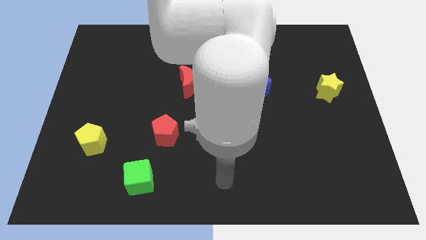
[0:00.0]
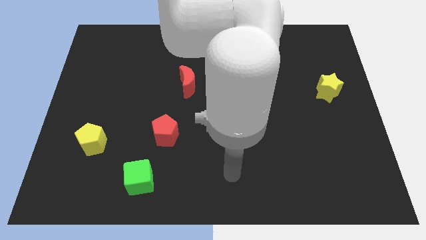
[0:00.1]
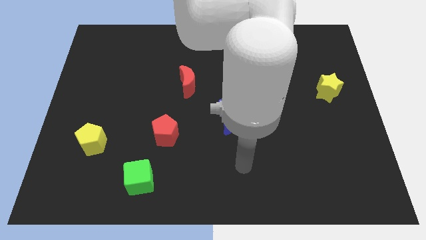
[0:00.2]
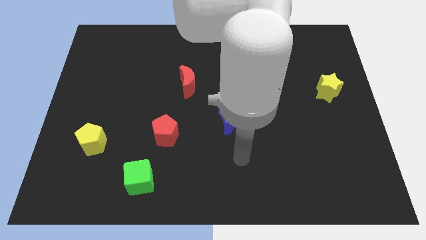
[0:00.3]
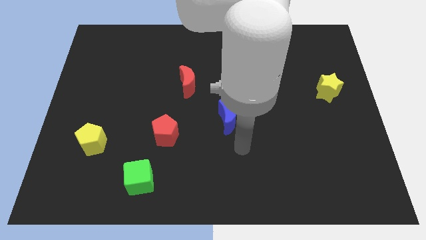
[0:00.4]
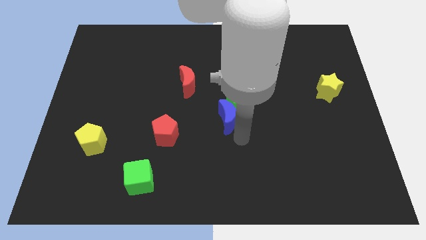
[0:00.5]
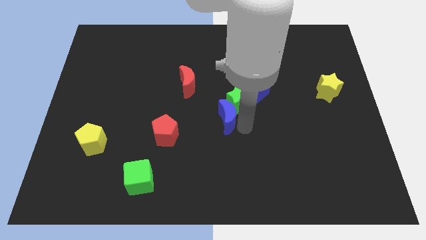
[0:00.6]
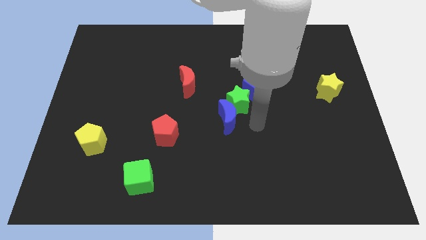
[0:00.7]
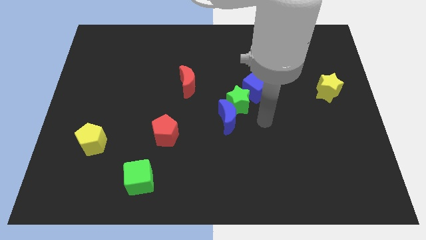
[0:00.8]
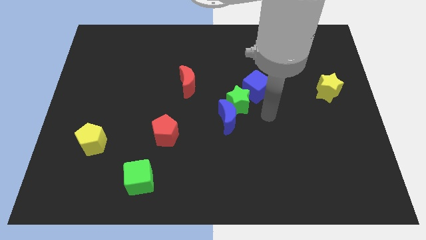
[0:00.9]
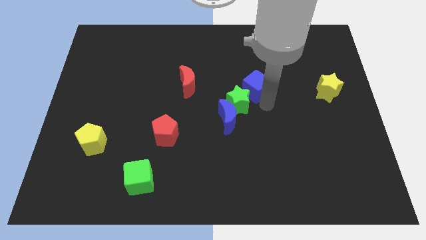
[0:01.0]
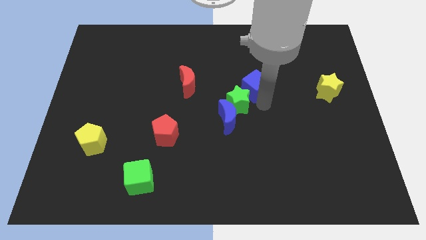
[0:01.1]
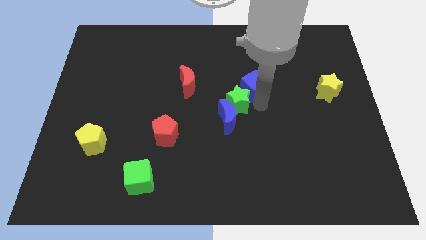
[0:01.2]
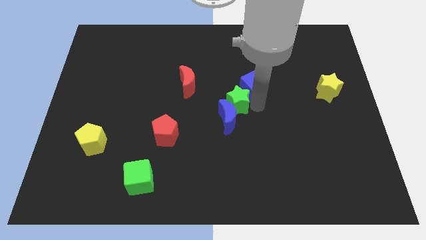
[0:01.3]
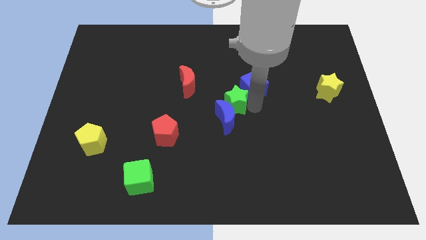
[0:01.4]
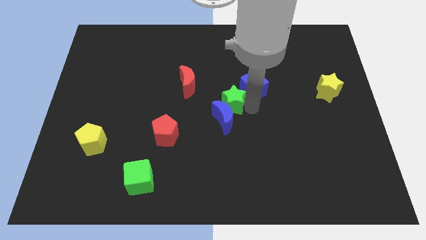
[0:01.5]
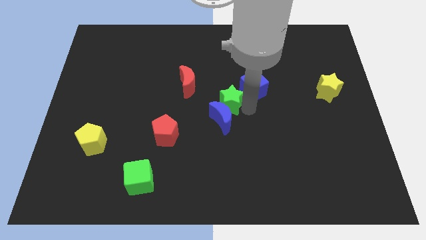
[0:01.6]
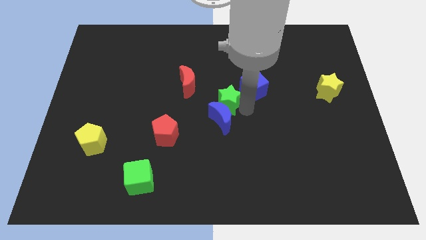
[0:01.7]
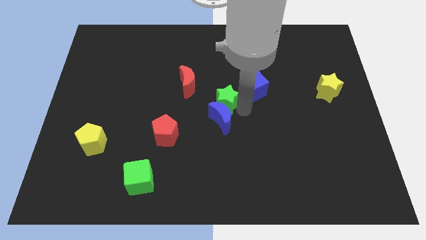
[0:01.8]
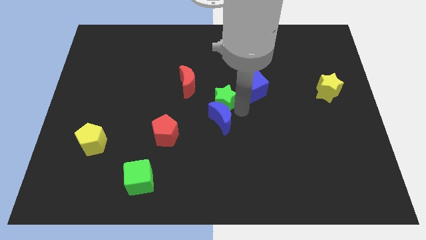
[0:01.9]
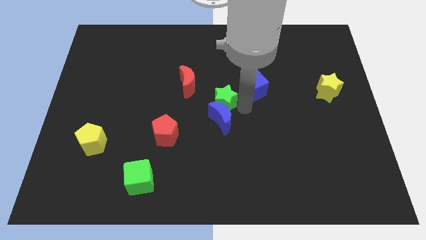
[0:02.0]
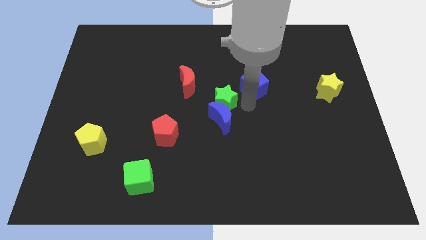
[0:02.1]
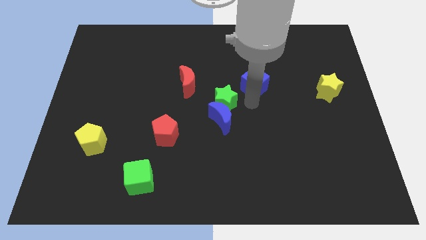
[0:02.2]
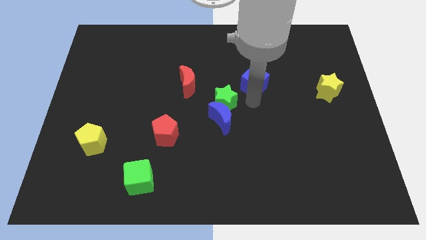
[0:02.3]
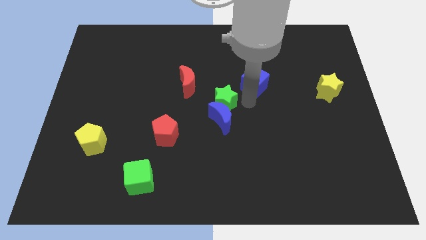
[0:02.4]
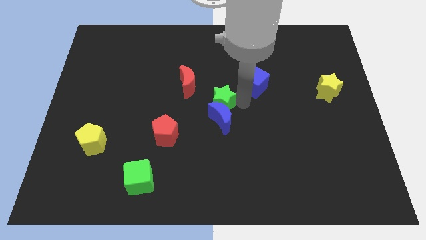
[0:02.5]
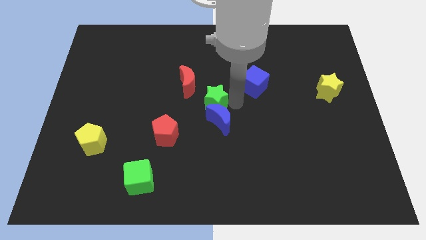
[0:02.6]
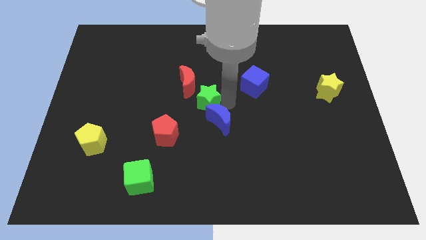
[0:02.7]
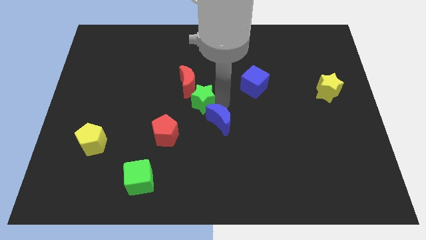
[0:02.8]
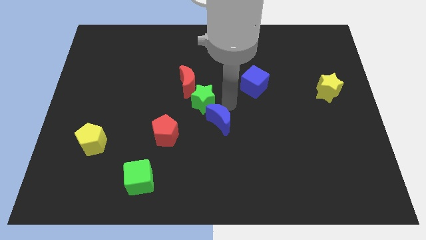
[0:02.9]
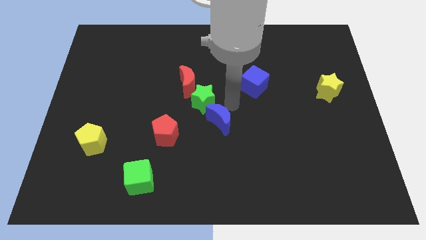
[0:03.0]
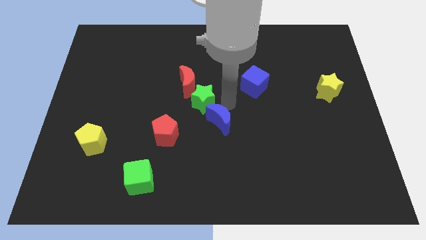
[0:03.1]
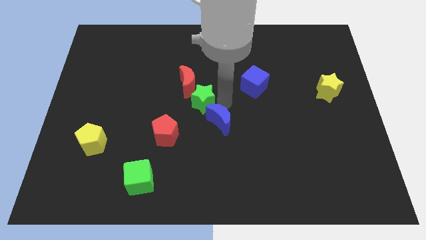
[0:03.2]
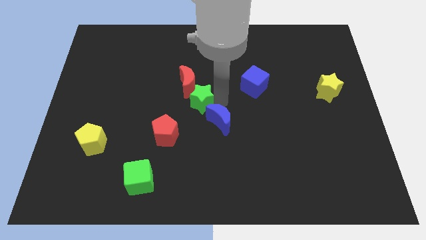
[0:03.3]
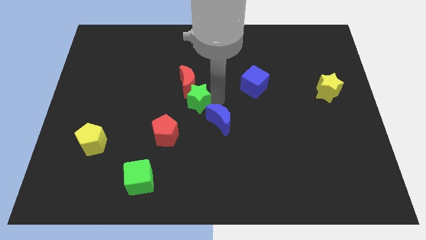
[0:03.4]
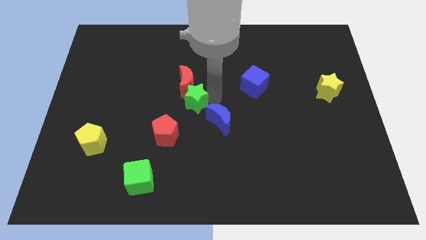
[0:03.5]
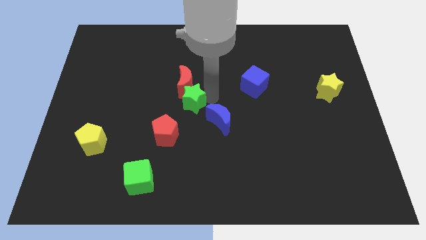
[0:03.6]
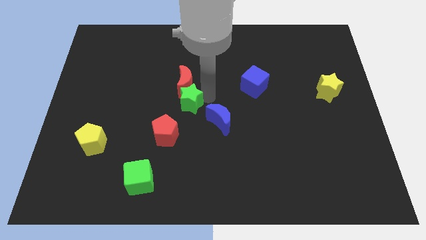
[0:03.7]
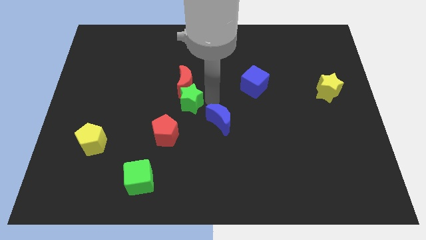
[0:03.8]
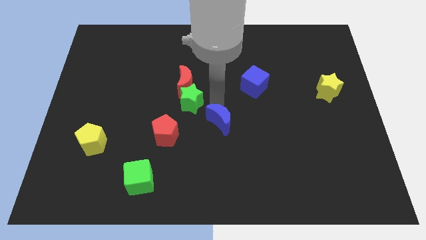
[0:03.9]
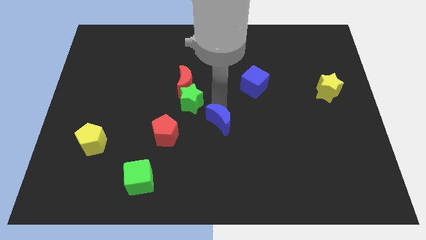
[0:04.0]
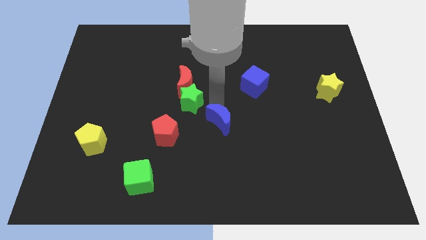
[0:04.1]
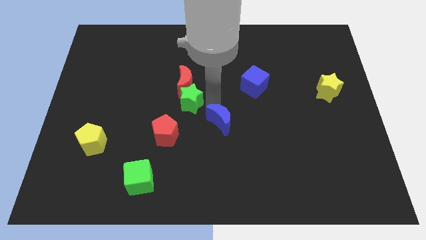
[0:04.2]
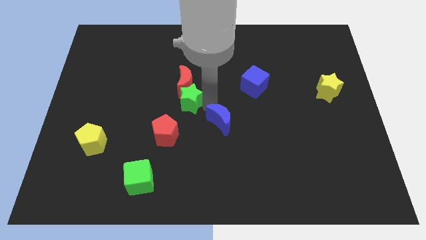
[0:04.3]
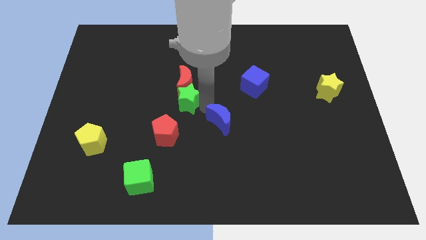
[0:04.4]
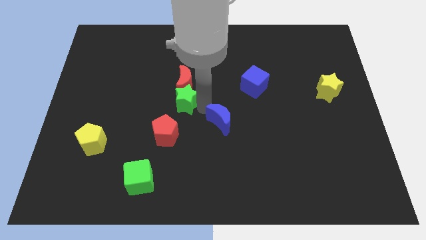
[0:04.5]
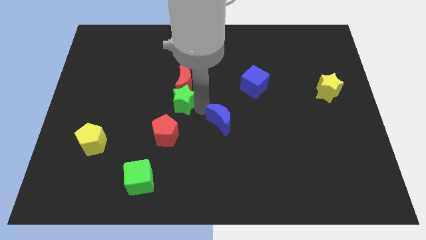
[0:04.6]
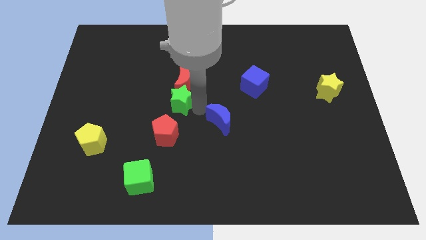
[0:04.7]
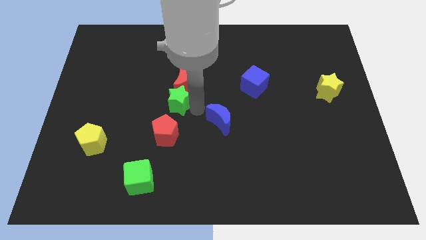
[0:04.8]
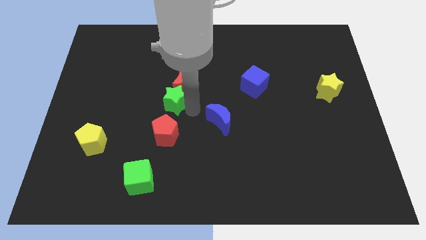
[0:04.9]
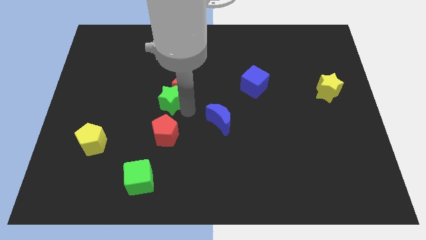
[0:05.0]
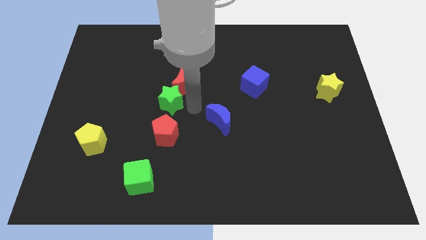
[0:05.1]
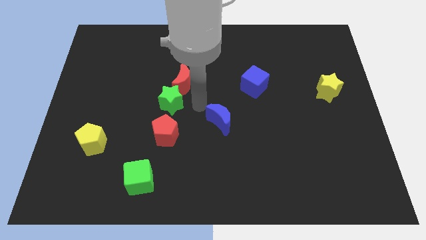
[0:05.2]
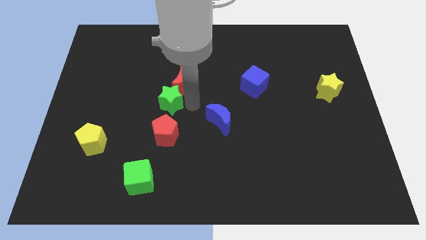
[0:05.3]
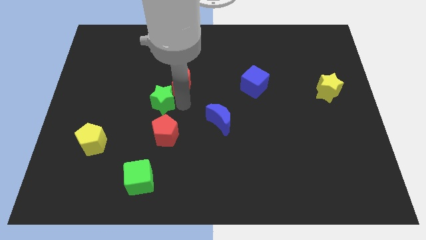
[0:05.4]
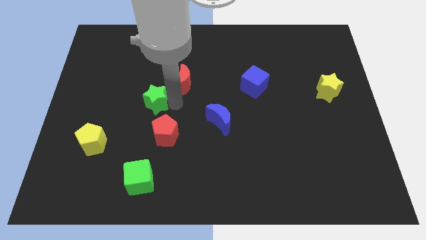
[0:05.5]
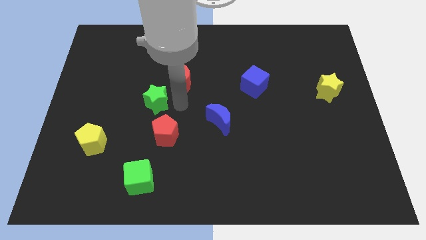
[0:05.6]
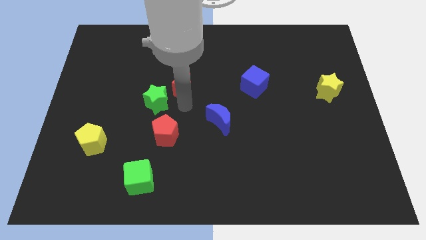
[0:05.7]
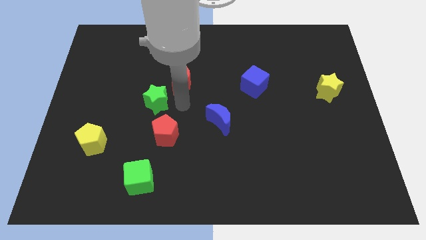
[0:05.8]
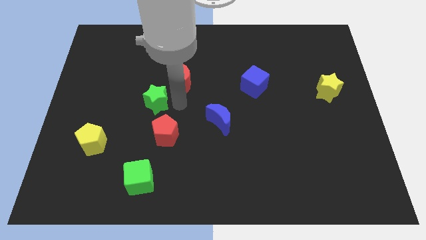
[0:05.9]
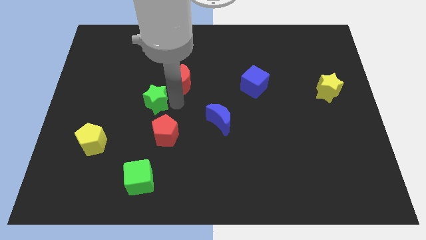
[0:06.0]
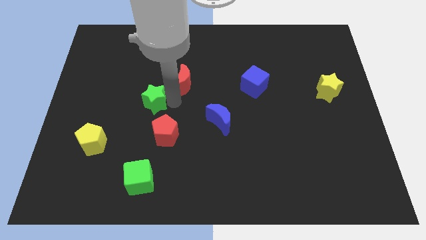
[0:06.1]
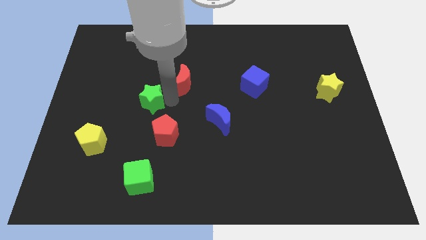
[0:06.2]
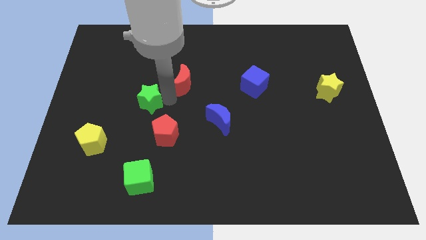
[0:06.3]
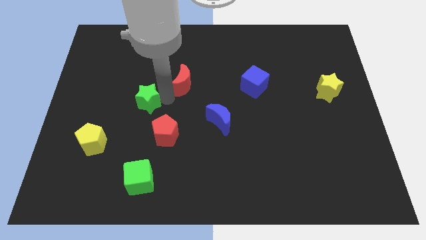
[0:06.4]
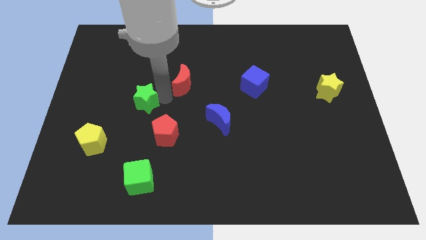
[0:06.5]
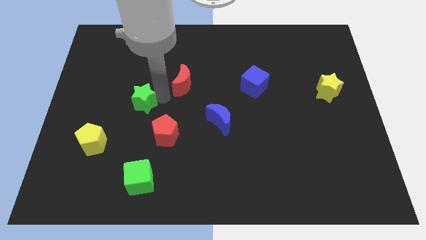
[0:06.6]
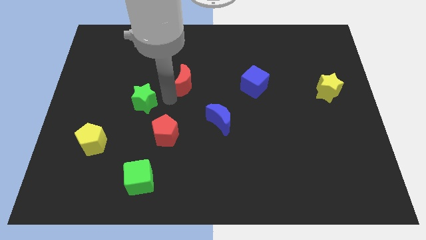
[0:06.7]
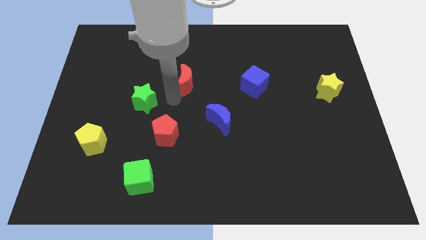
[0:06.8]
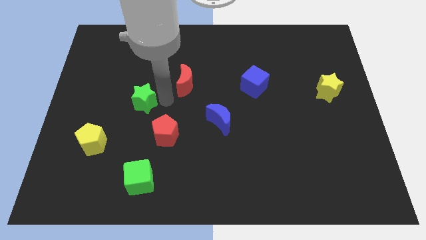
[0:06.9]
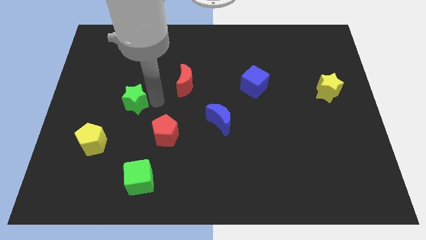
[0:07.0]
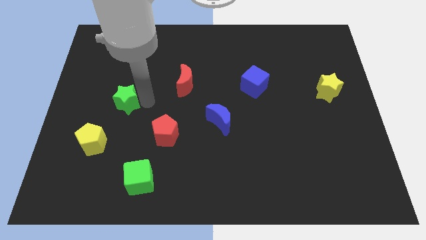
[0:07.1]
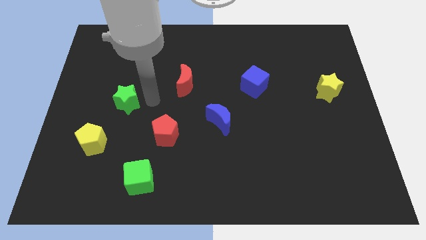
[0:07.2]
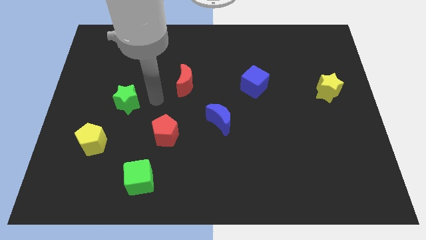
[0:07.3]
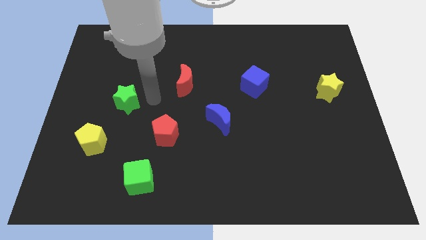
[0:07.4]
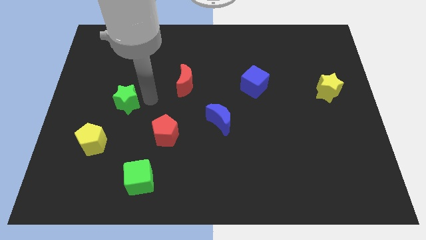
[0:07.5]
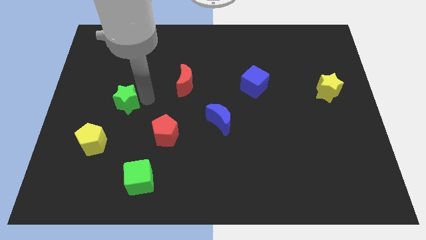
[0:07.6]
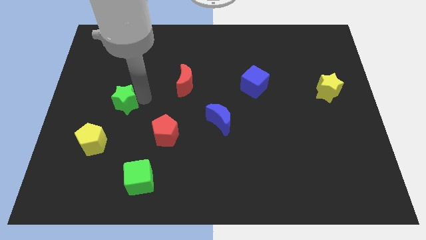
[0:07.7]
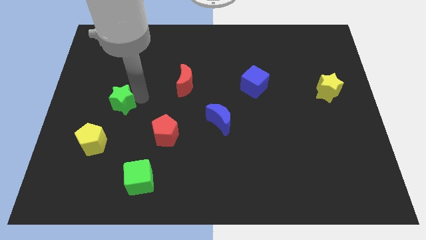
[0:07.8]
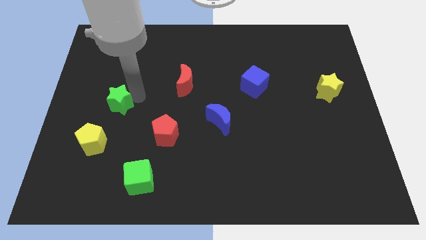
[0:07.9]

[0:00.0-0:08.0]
put the green star to the top of the yellow pentagon
